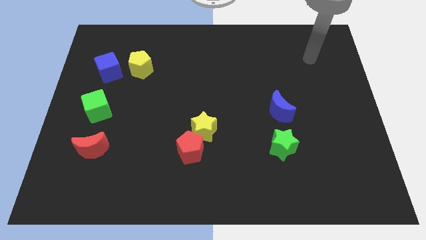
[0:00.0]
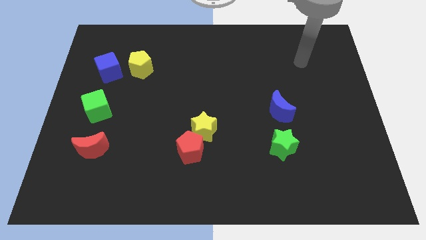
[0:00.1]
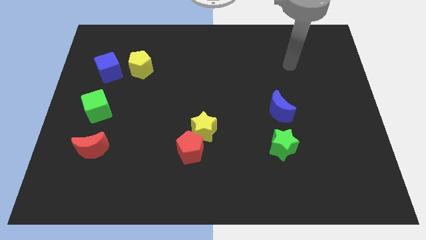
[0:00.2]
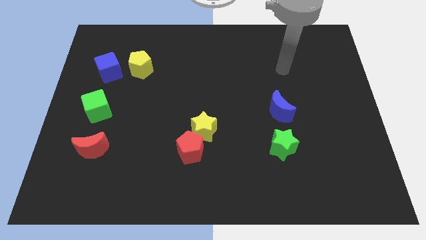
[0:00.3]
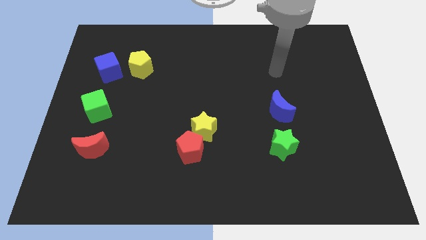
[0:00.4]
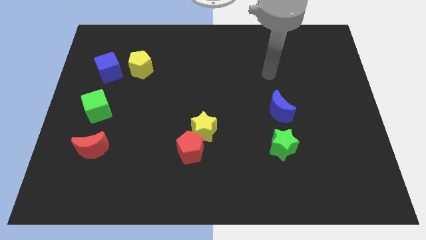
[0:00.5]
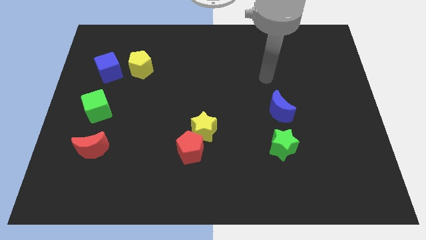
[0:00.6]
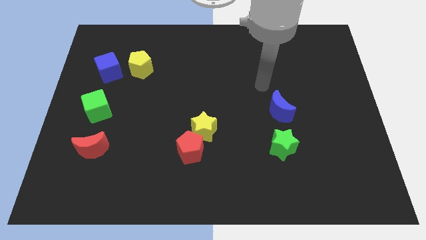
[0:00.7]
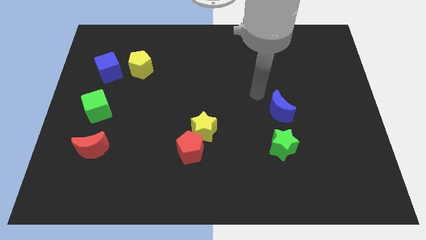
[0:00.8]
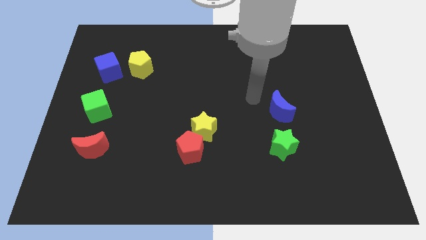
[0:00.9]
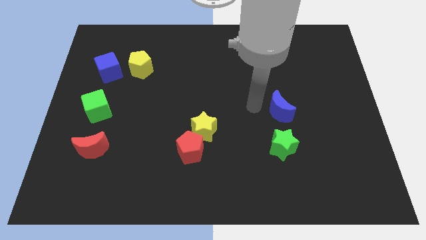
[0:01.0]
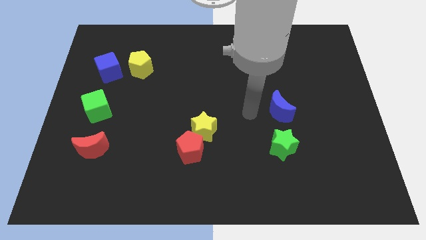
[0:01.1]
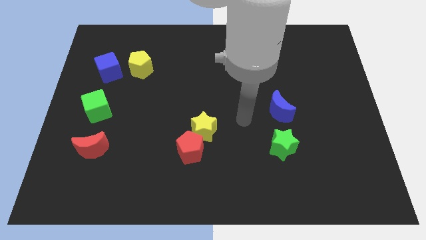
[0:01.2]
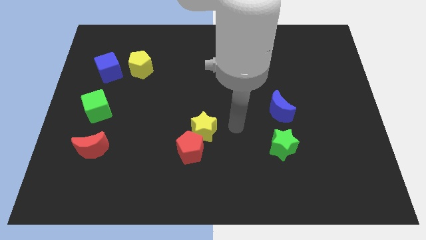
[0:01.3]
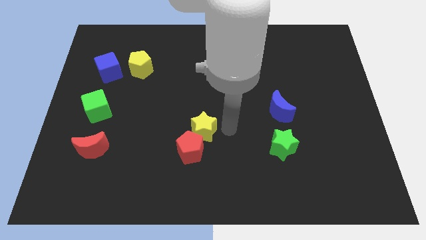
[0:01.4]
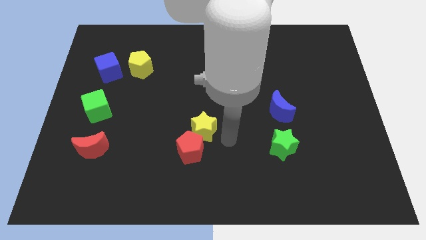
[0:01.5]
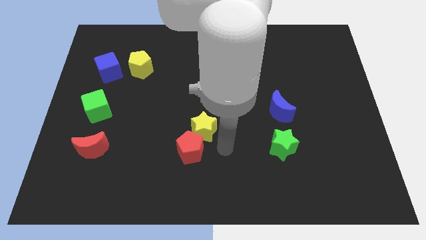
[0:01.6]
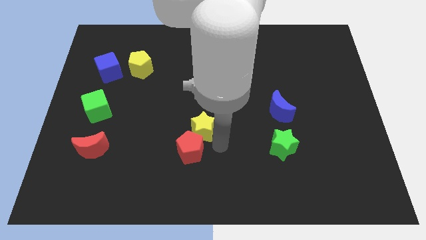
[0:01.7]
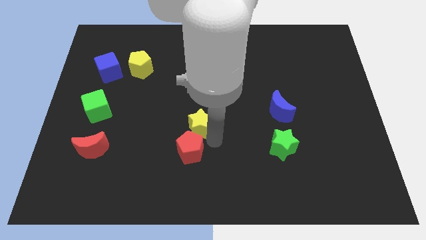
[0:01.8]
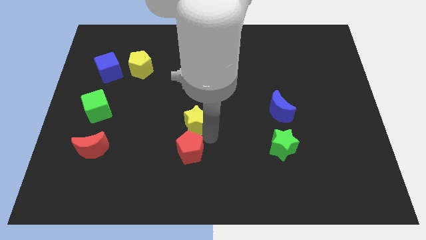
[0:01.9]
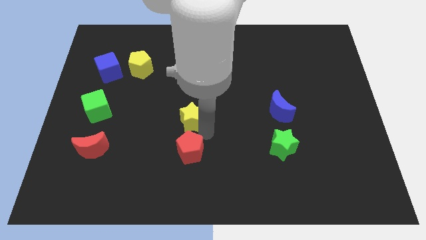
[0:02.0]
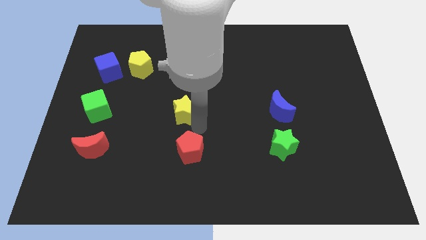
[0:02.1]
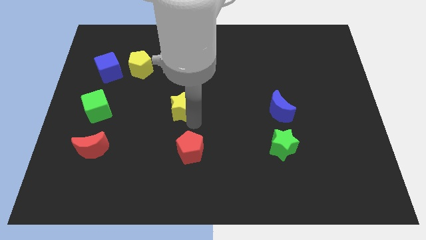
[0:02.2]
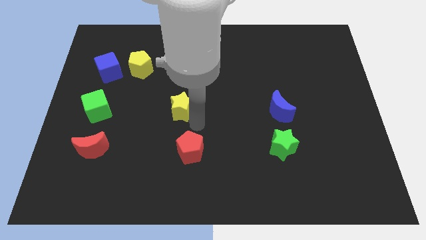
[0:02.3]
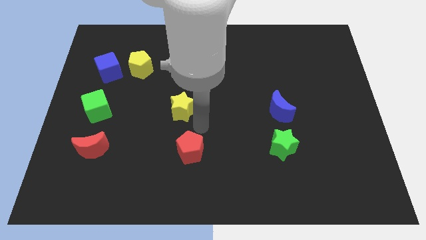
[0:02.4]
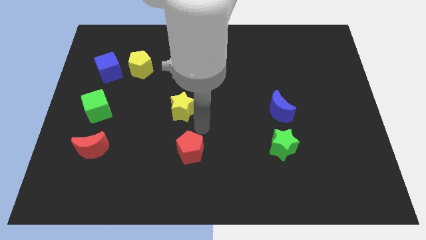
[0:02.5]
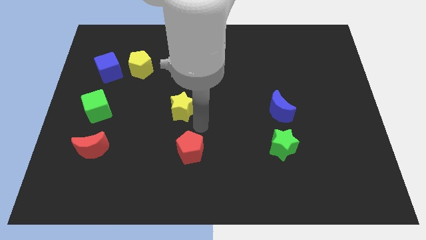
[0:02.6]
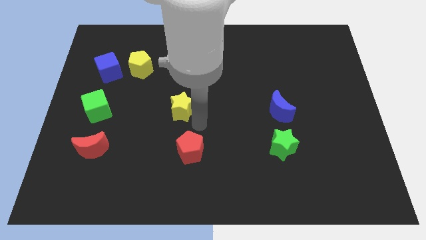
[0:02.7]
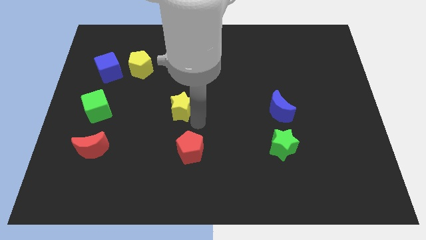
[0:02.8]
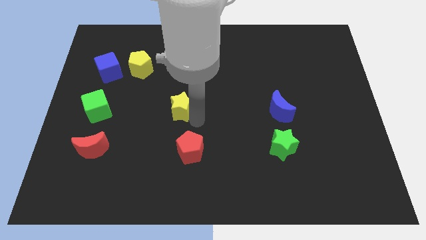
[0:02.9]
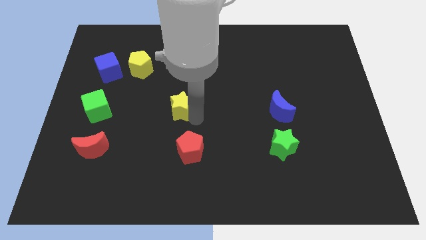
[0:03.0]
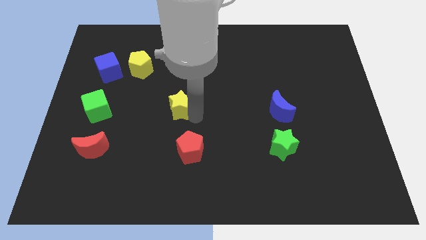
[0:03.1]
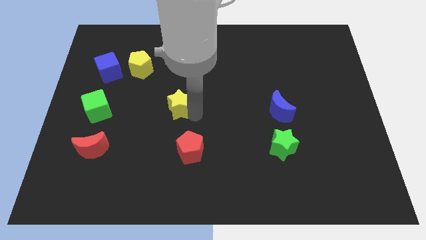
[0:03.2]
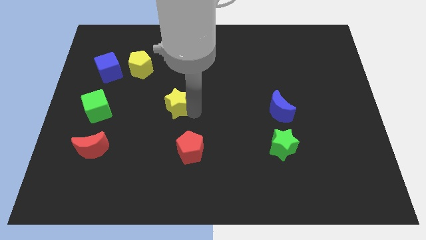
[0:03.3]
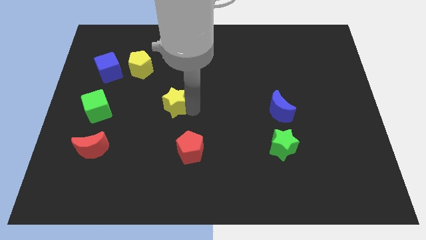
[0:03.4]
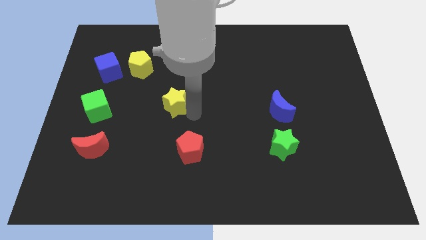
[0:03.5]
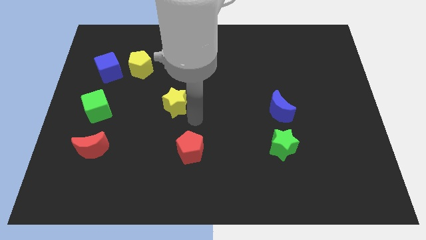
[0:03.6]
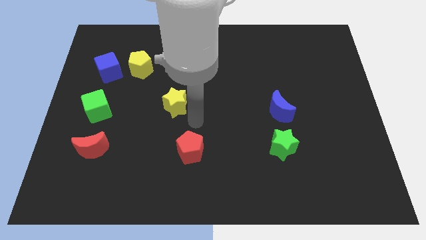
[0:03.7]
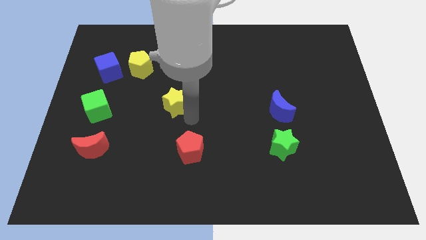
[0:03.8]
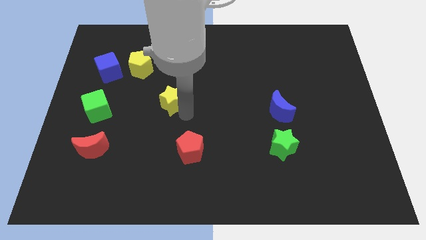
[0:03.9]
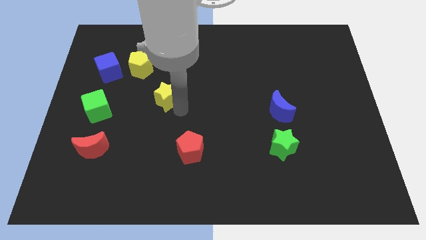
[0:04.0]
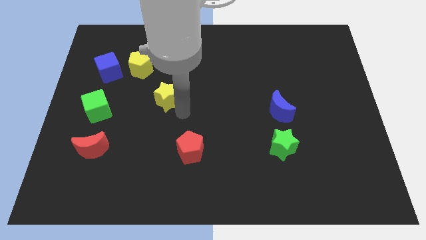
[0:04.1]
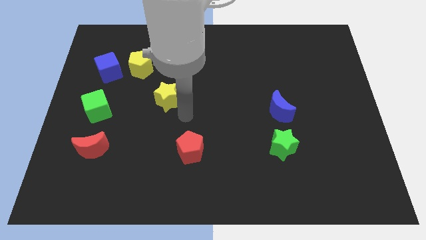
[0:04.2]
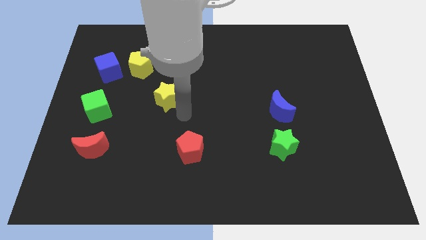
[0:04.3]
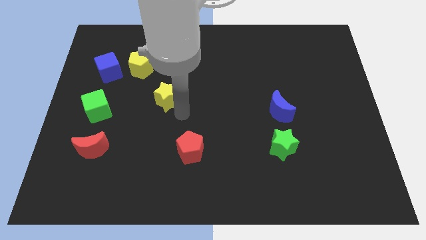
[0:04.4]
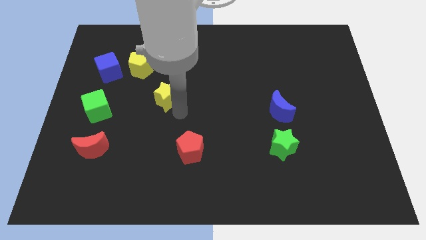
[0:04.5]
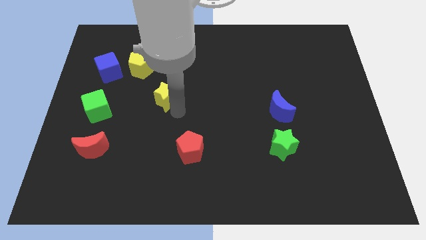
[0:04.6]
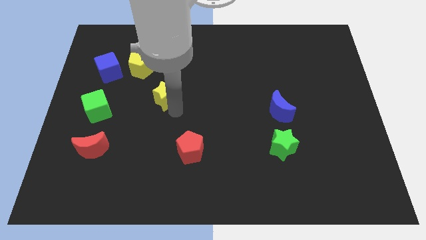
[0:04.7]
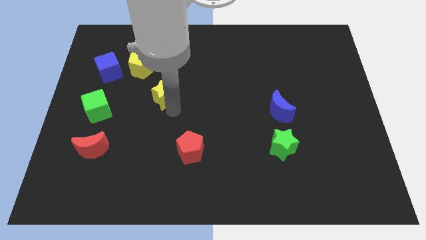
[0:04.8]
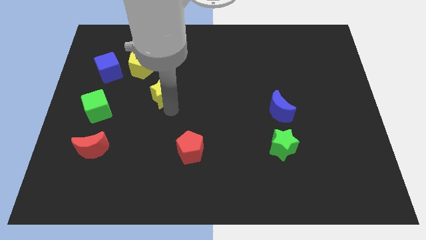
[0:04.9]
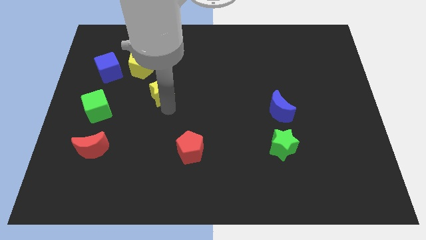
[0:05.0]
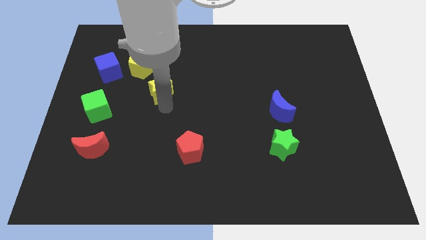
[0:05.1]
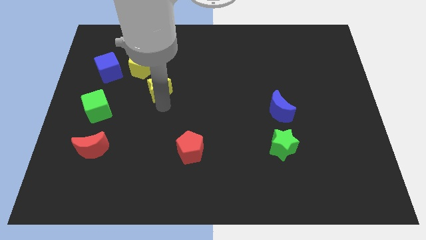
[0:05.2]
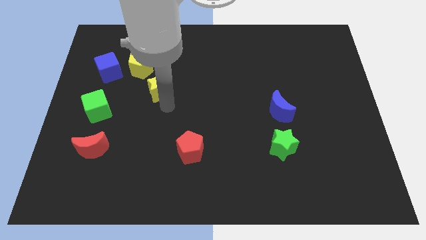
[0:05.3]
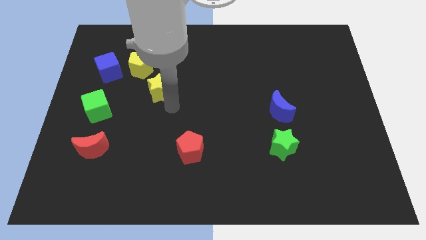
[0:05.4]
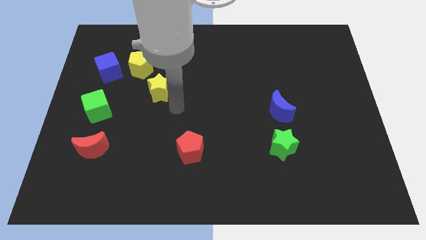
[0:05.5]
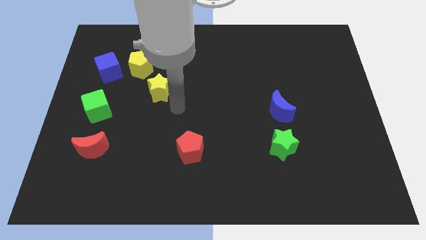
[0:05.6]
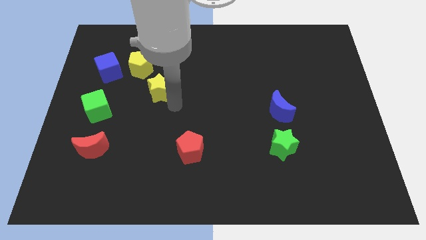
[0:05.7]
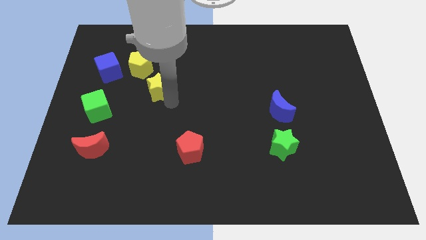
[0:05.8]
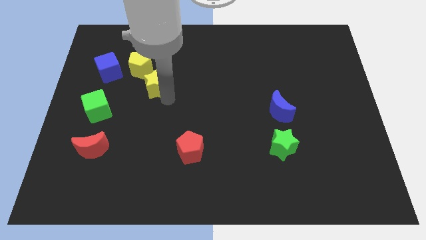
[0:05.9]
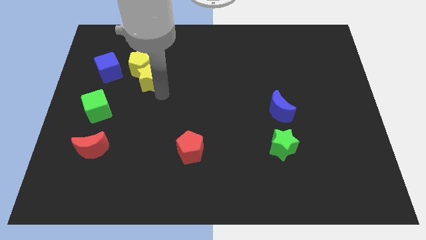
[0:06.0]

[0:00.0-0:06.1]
put the yellow star next to the yellow pentagon

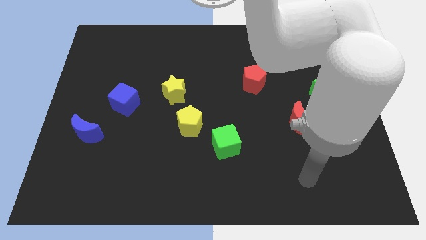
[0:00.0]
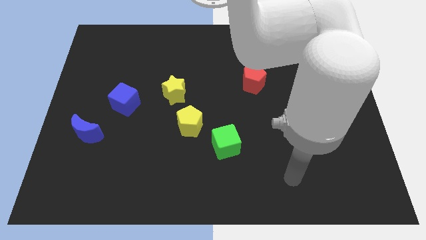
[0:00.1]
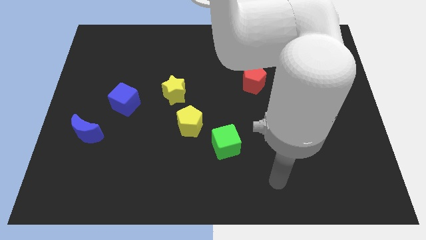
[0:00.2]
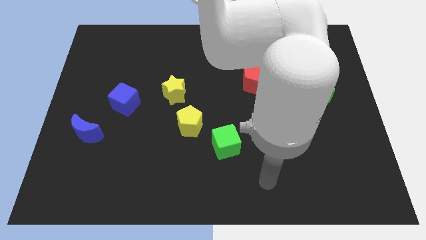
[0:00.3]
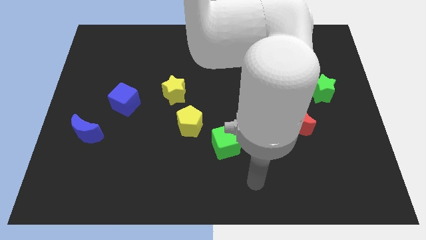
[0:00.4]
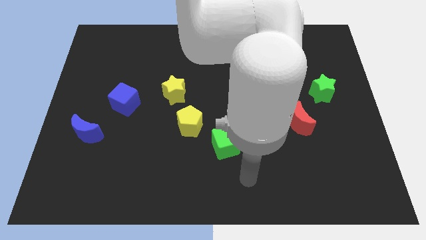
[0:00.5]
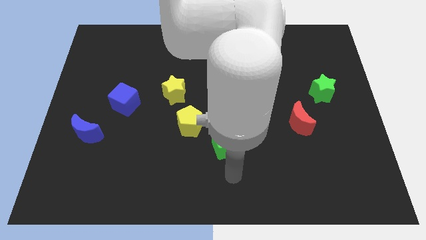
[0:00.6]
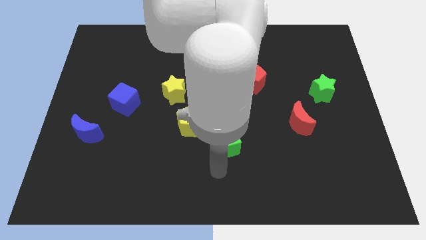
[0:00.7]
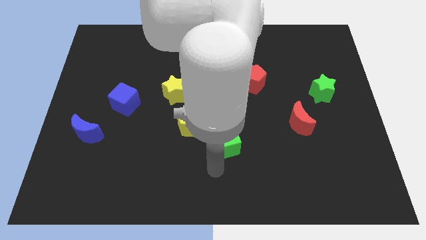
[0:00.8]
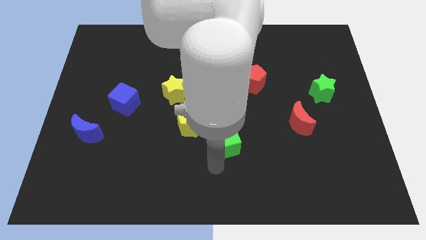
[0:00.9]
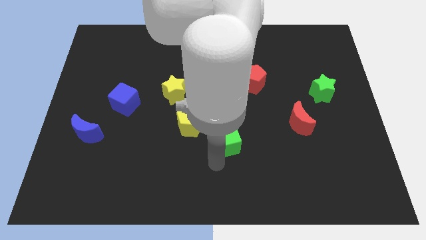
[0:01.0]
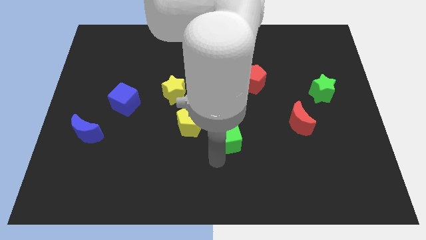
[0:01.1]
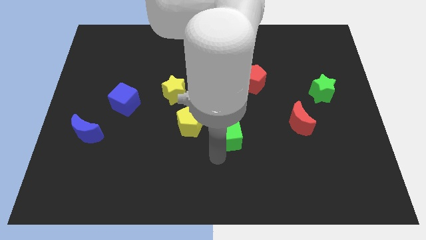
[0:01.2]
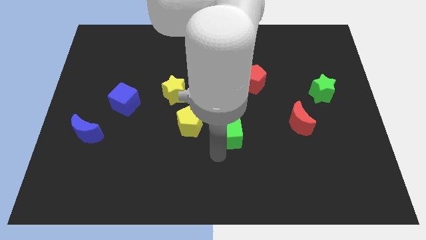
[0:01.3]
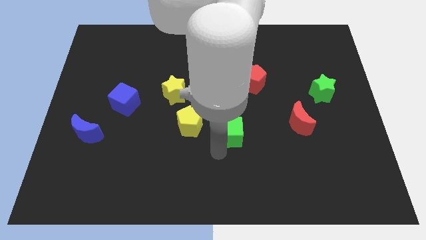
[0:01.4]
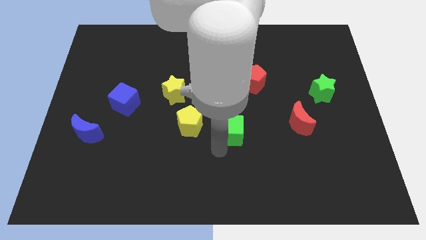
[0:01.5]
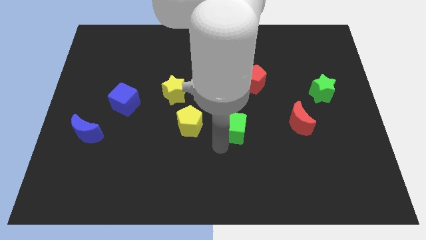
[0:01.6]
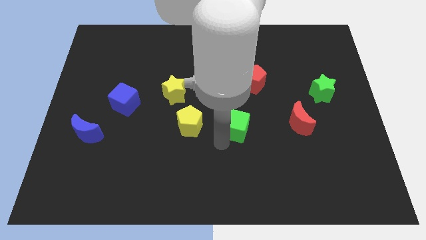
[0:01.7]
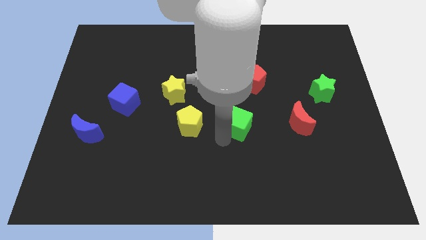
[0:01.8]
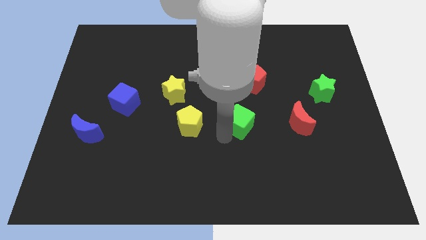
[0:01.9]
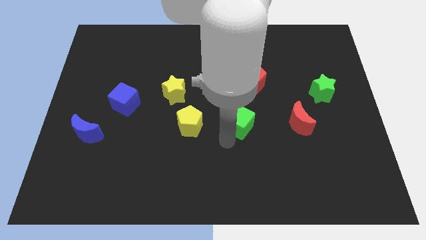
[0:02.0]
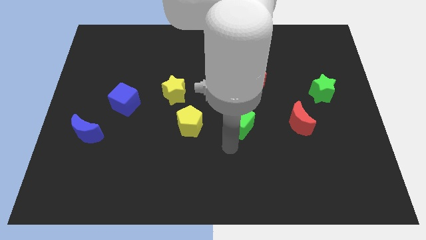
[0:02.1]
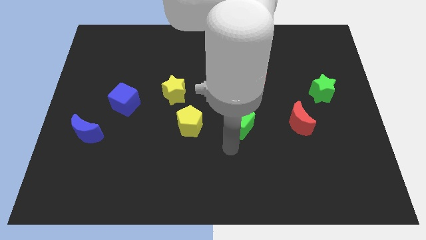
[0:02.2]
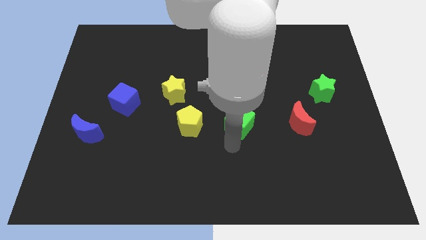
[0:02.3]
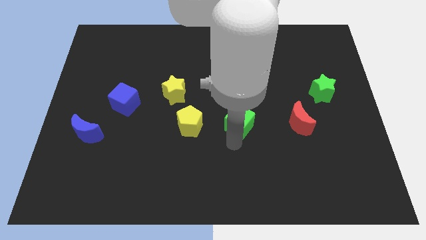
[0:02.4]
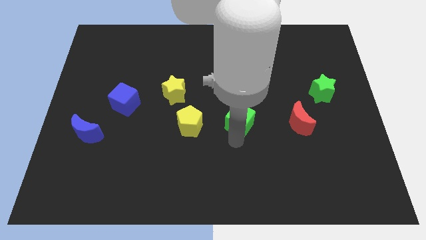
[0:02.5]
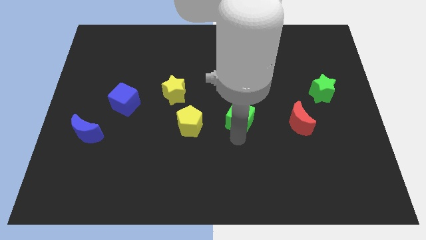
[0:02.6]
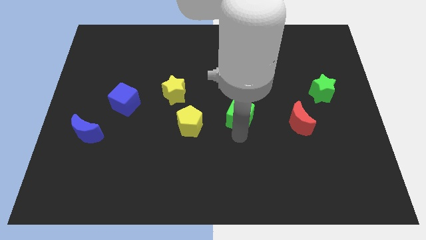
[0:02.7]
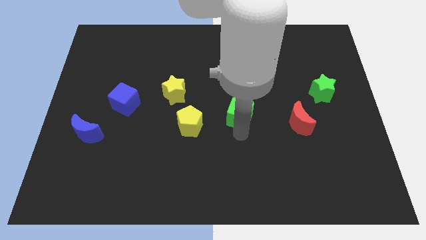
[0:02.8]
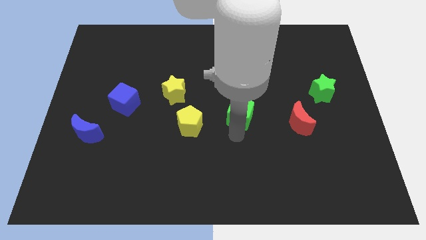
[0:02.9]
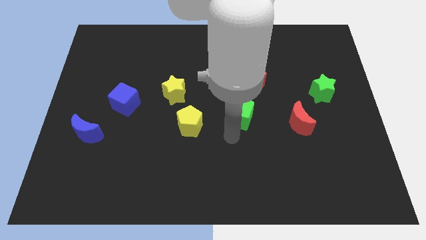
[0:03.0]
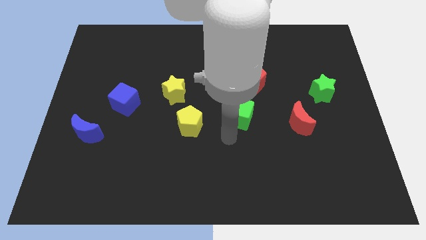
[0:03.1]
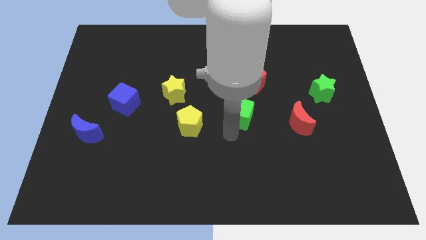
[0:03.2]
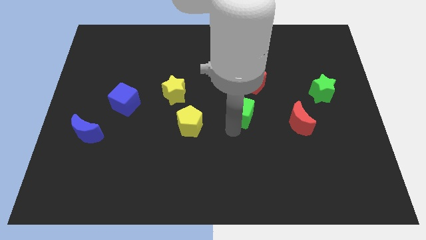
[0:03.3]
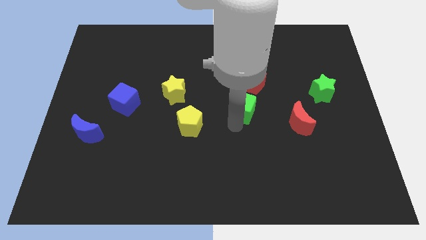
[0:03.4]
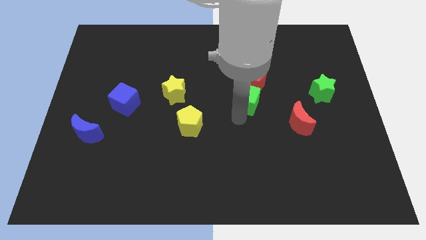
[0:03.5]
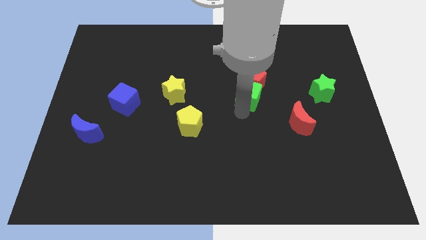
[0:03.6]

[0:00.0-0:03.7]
put the green cube next to the red pentagon
